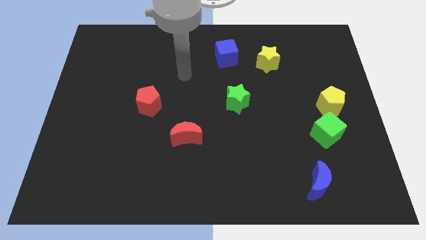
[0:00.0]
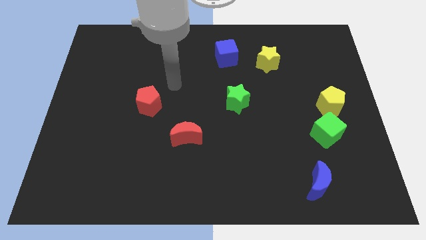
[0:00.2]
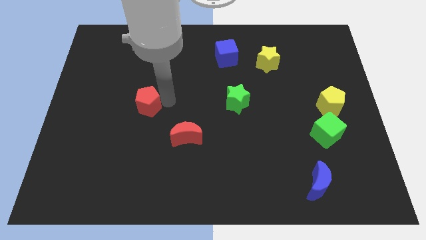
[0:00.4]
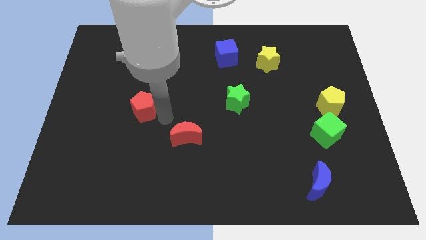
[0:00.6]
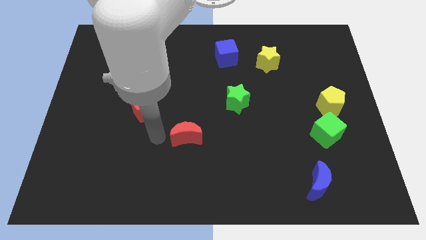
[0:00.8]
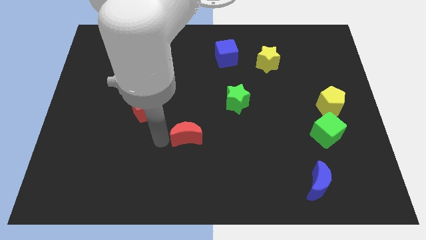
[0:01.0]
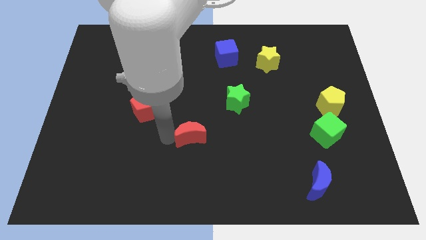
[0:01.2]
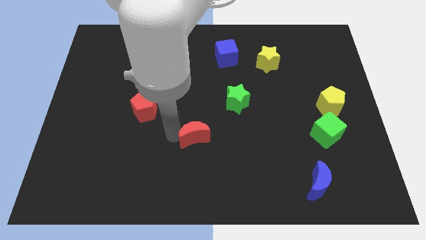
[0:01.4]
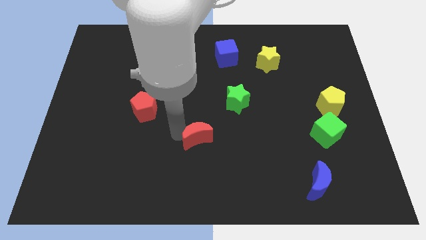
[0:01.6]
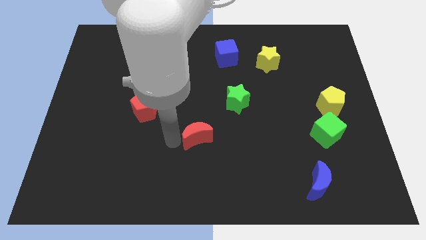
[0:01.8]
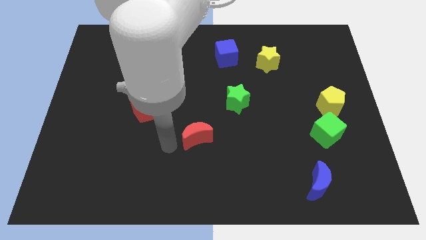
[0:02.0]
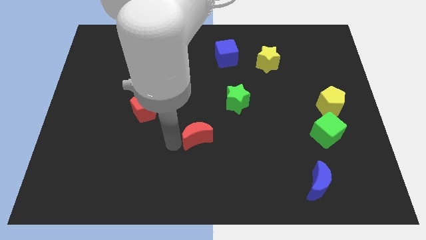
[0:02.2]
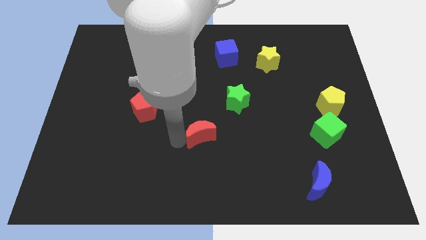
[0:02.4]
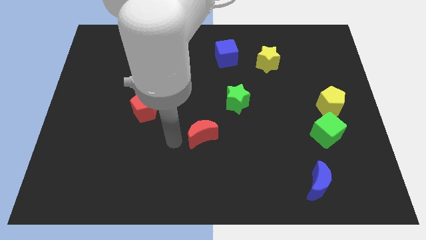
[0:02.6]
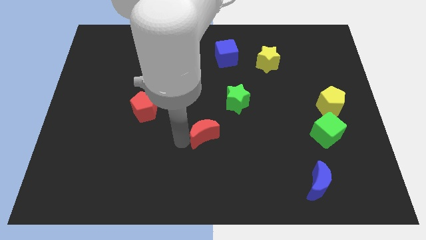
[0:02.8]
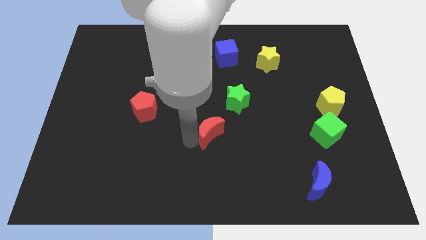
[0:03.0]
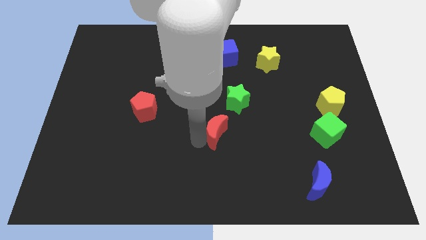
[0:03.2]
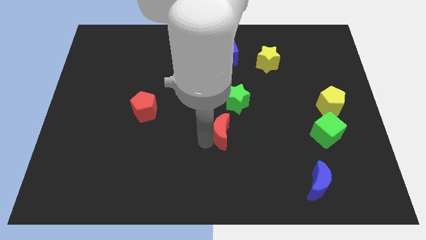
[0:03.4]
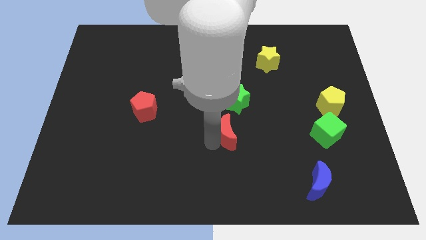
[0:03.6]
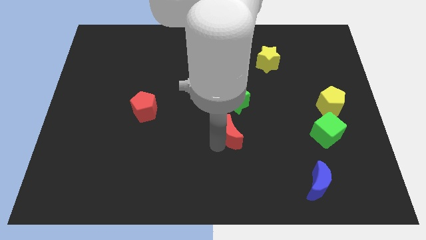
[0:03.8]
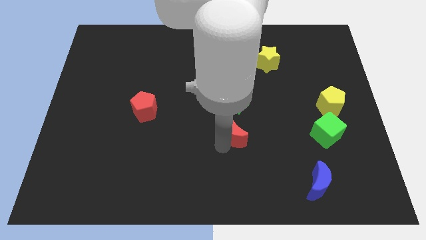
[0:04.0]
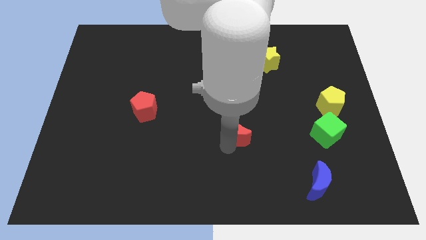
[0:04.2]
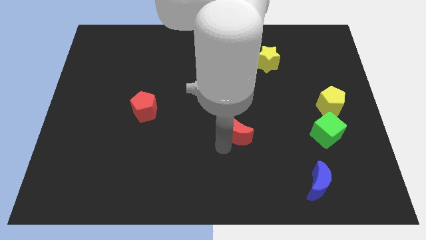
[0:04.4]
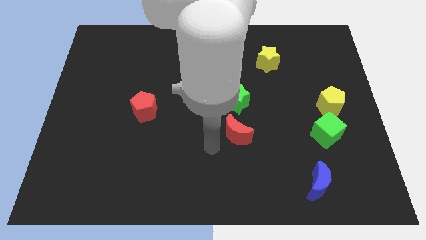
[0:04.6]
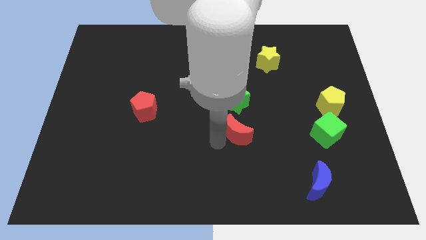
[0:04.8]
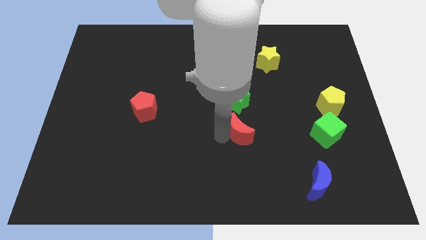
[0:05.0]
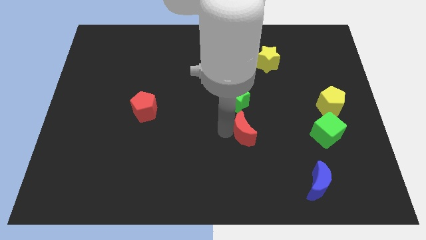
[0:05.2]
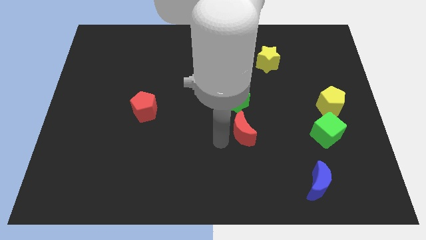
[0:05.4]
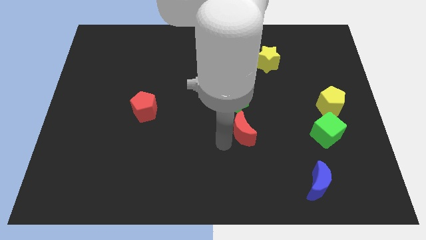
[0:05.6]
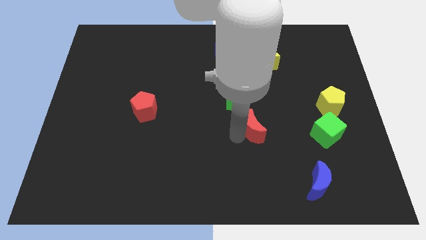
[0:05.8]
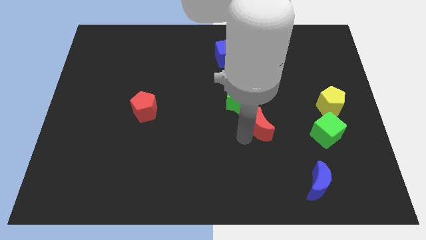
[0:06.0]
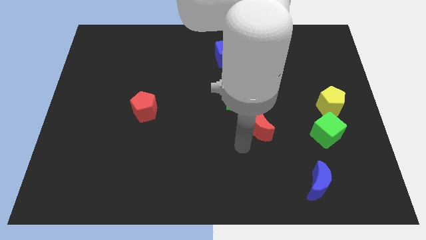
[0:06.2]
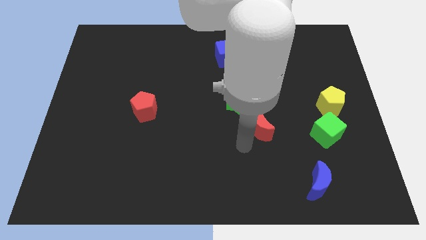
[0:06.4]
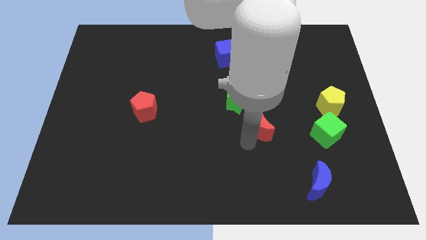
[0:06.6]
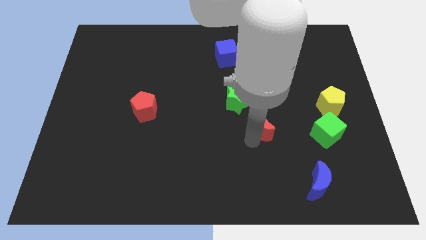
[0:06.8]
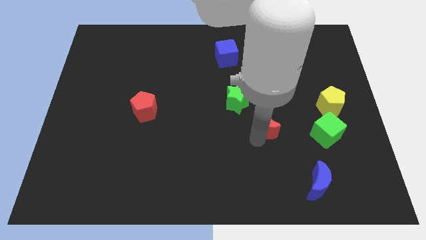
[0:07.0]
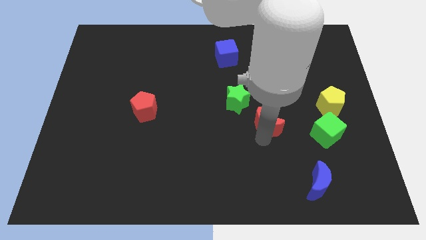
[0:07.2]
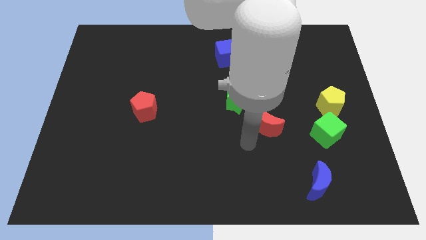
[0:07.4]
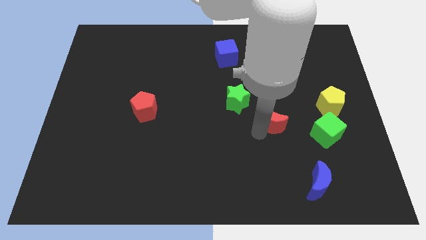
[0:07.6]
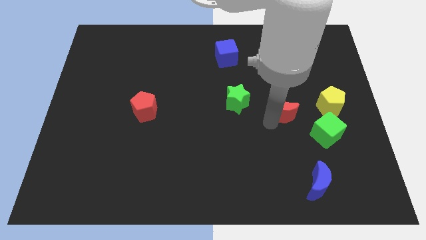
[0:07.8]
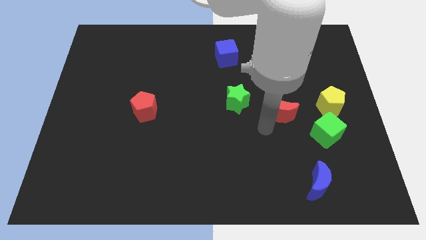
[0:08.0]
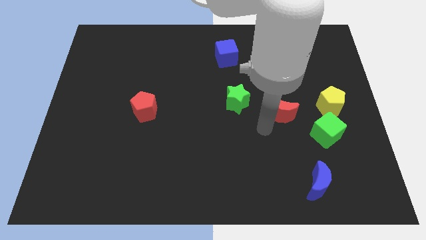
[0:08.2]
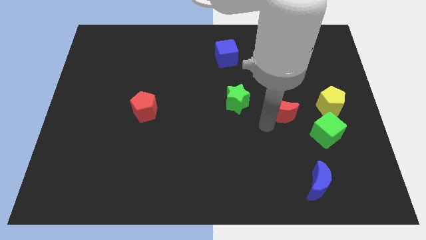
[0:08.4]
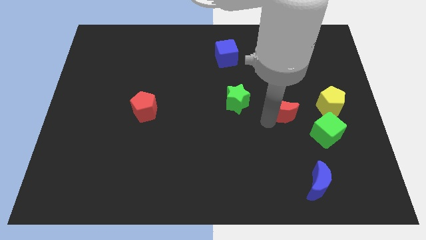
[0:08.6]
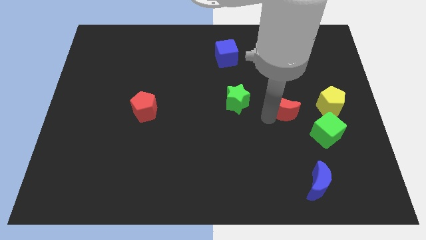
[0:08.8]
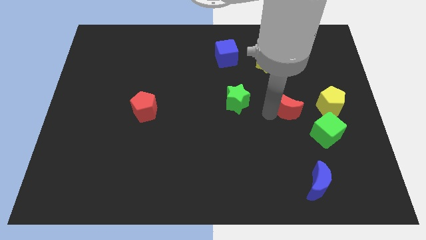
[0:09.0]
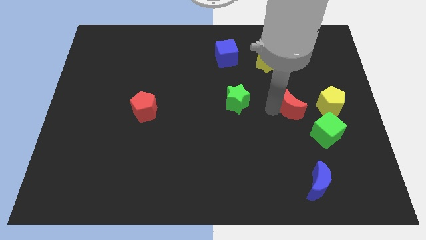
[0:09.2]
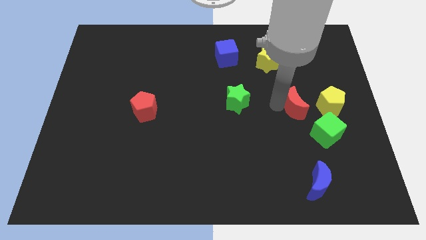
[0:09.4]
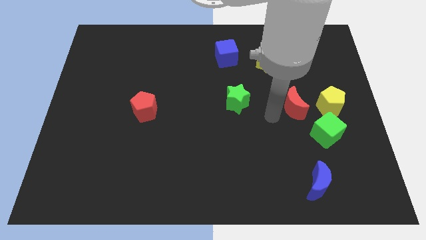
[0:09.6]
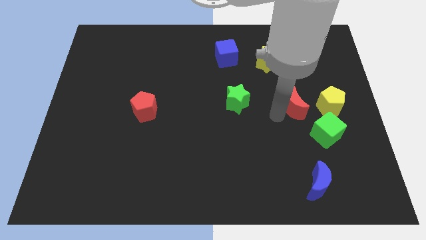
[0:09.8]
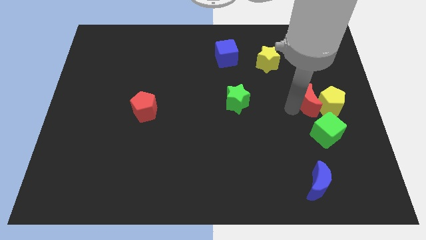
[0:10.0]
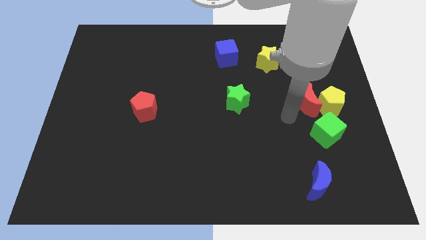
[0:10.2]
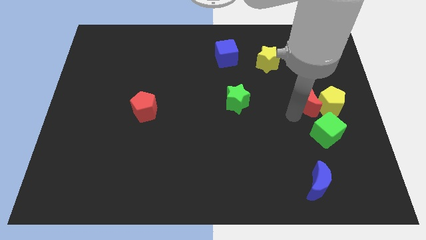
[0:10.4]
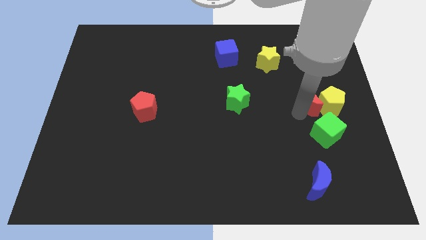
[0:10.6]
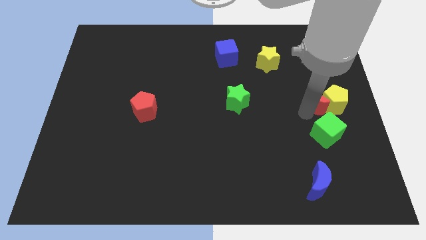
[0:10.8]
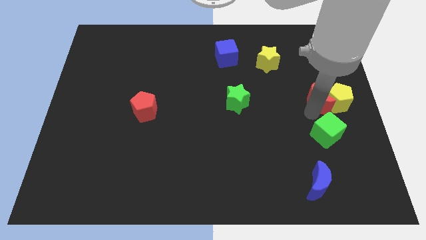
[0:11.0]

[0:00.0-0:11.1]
put the red moon to the right side of the board

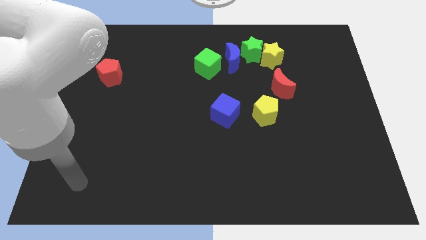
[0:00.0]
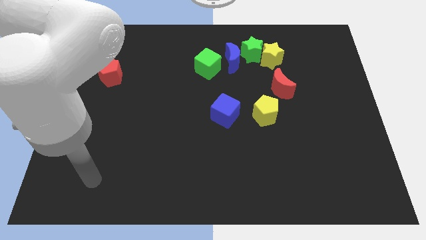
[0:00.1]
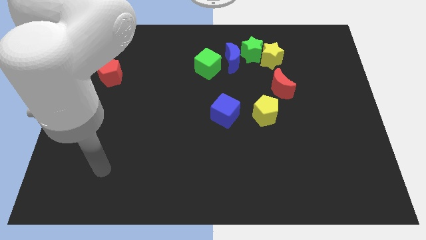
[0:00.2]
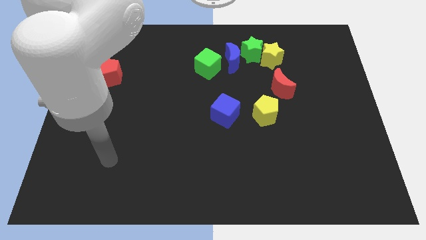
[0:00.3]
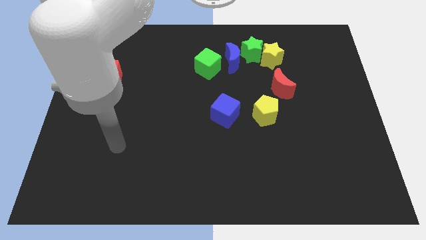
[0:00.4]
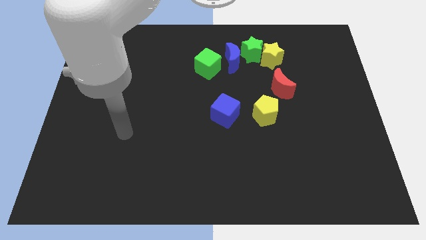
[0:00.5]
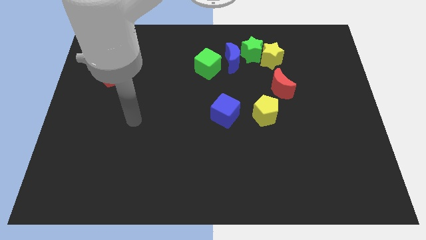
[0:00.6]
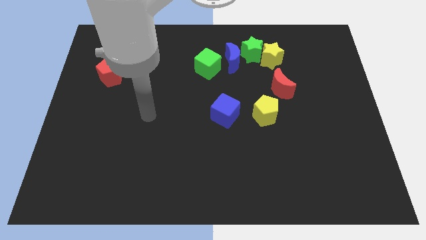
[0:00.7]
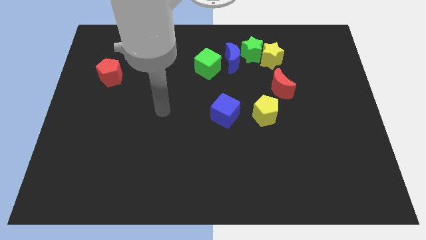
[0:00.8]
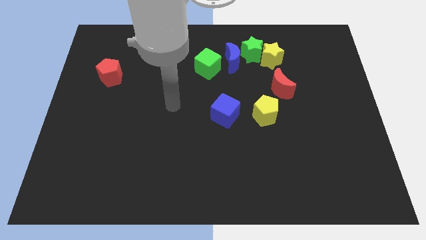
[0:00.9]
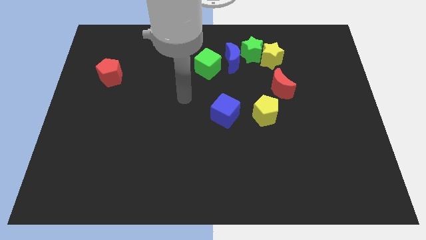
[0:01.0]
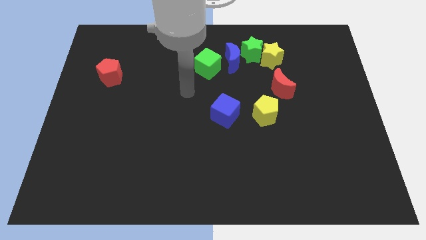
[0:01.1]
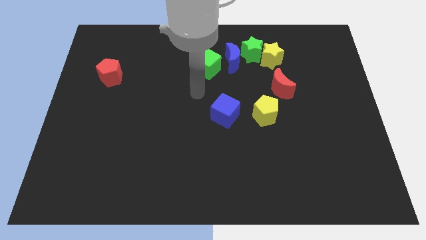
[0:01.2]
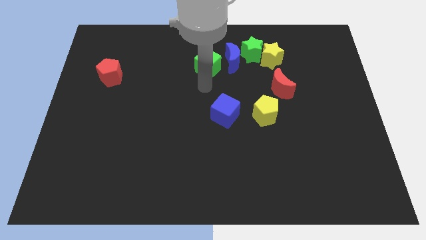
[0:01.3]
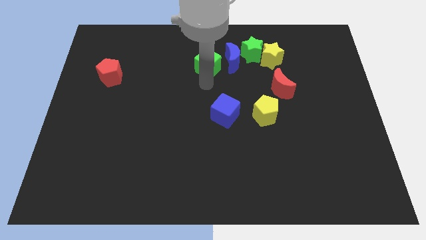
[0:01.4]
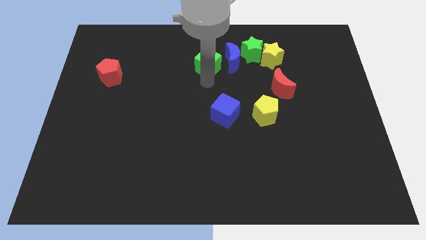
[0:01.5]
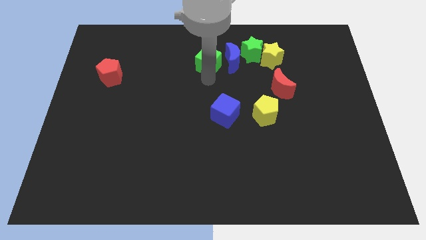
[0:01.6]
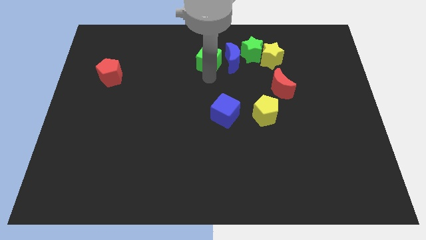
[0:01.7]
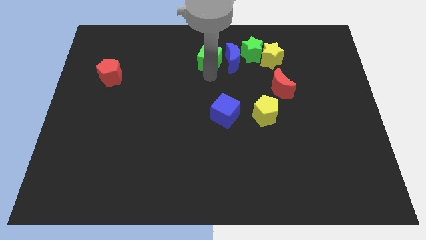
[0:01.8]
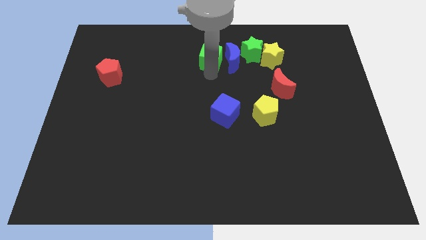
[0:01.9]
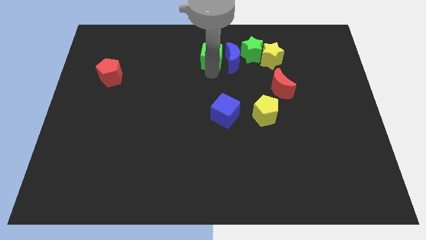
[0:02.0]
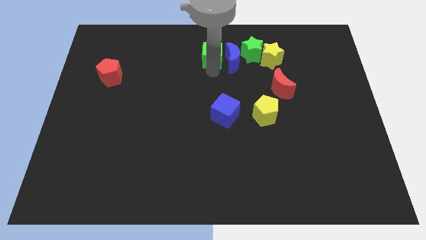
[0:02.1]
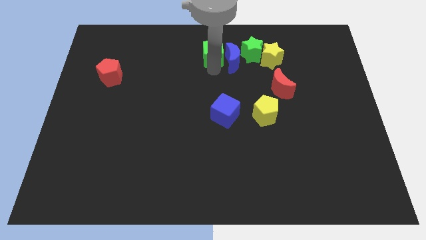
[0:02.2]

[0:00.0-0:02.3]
put the green cube to the top side
